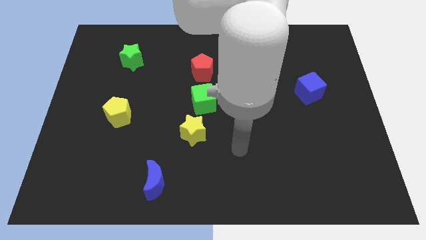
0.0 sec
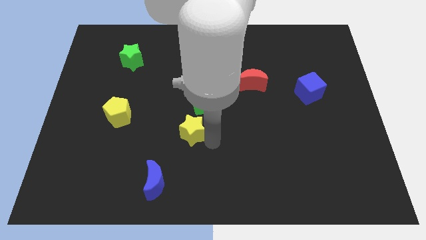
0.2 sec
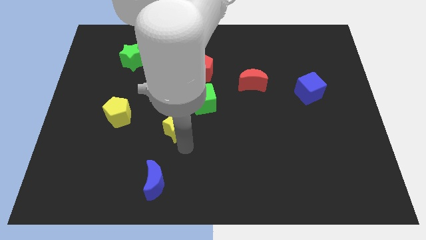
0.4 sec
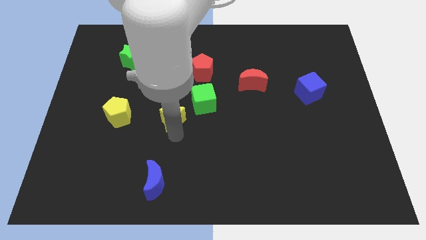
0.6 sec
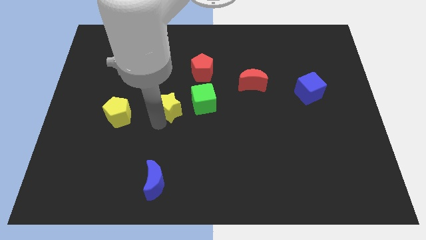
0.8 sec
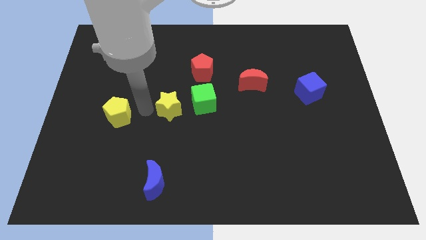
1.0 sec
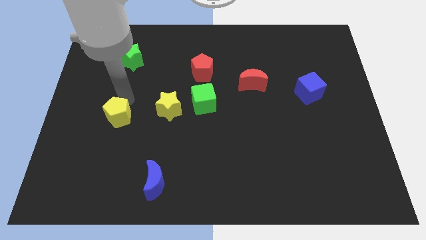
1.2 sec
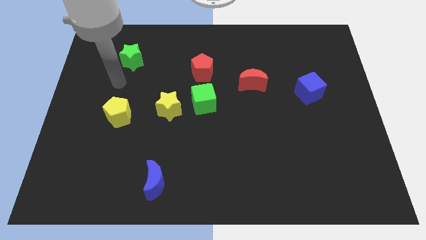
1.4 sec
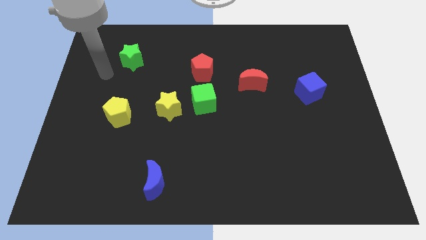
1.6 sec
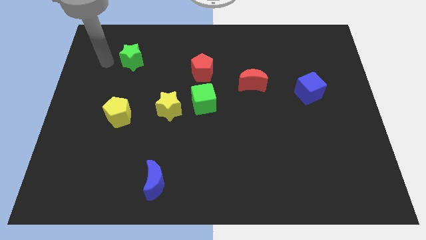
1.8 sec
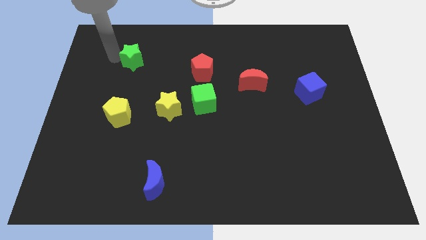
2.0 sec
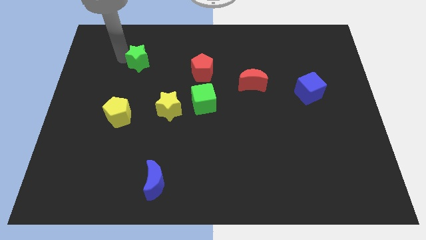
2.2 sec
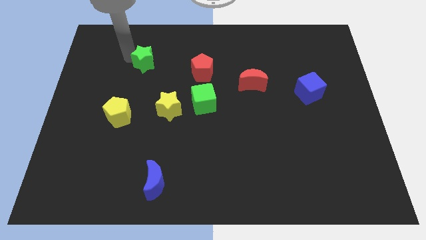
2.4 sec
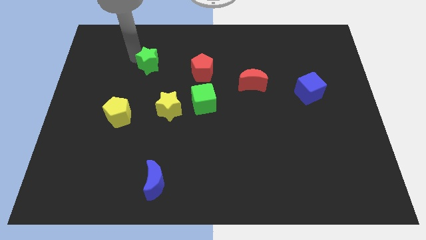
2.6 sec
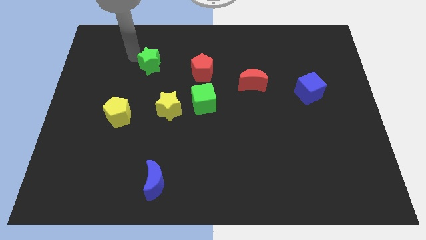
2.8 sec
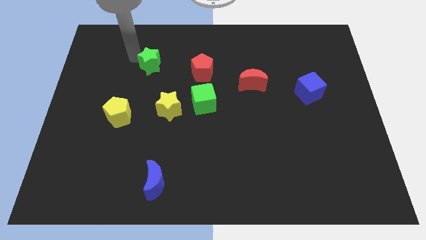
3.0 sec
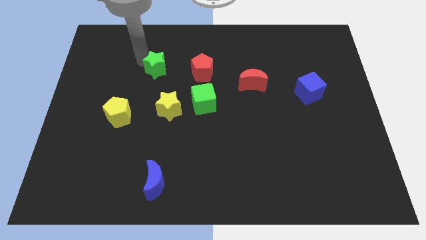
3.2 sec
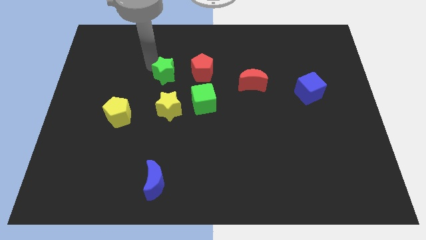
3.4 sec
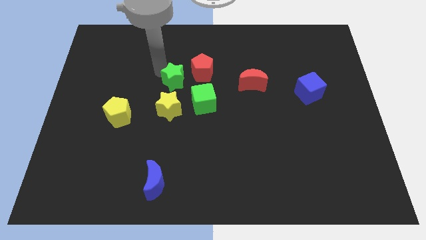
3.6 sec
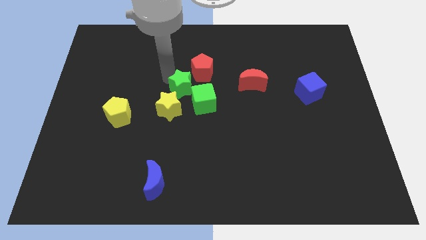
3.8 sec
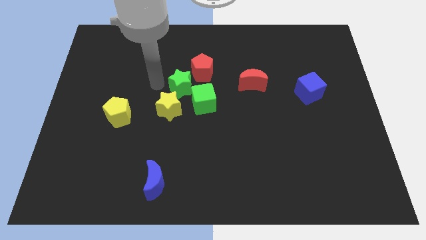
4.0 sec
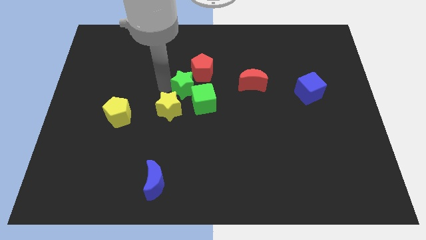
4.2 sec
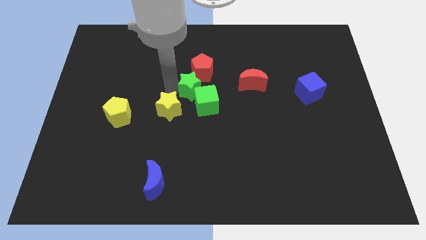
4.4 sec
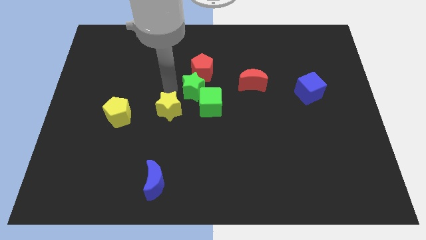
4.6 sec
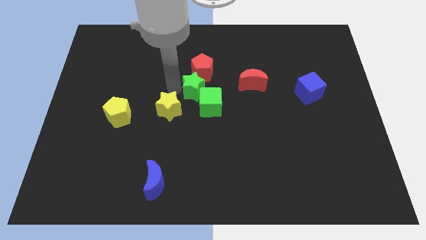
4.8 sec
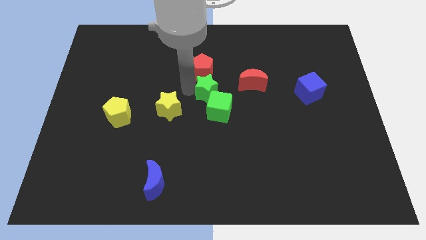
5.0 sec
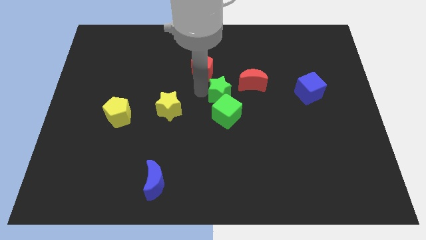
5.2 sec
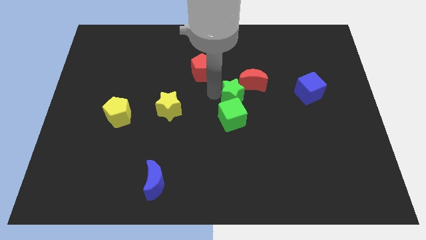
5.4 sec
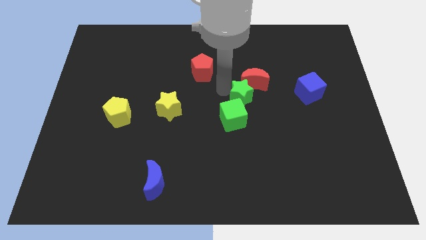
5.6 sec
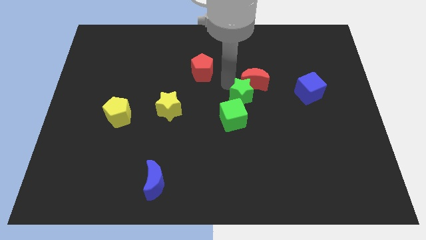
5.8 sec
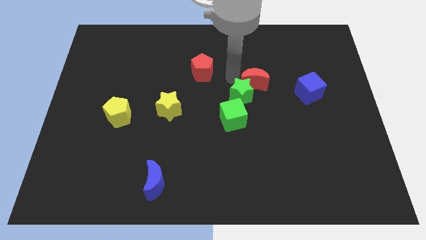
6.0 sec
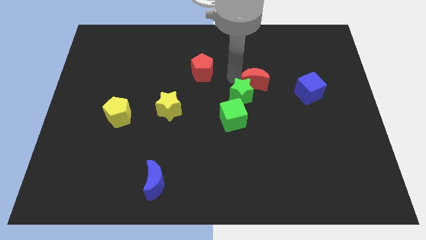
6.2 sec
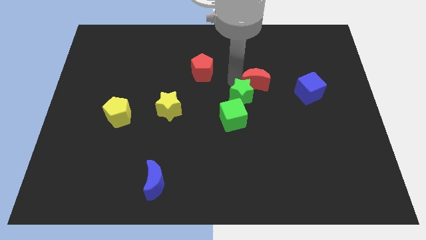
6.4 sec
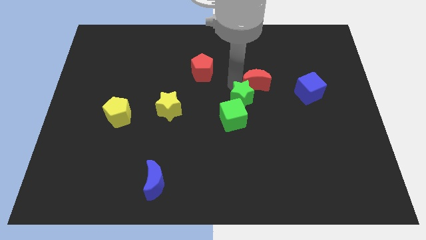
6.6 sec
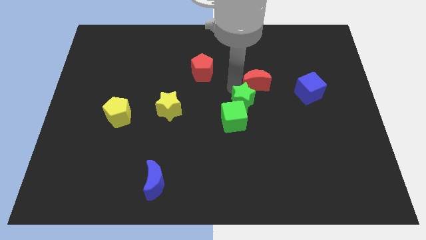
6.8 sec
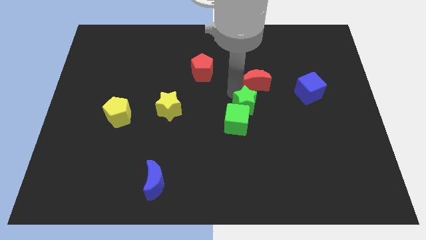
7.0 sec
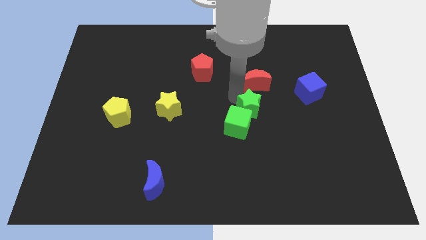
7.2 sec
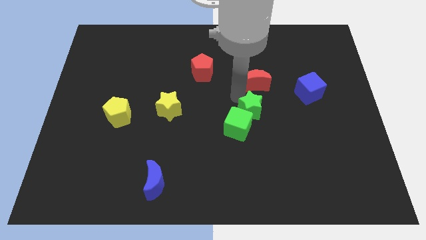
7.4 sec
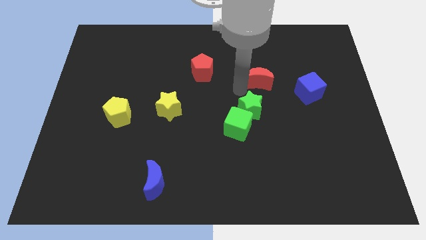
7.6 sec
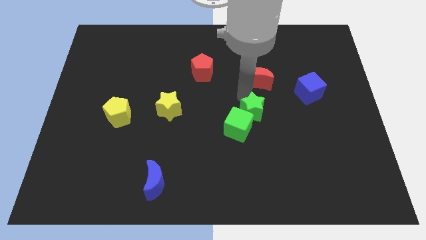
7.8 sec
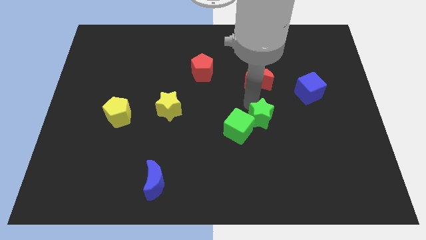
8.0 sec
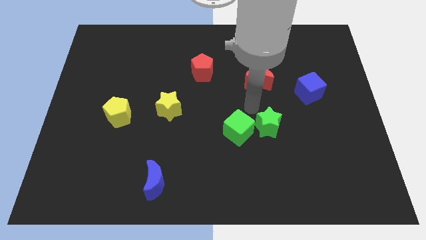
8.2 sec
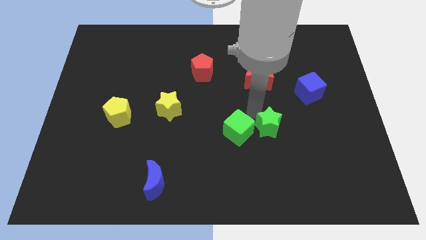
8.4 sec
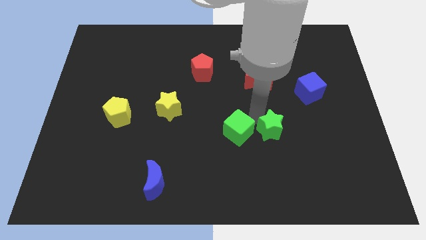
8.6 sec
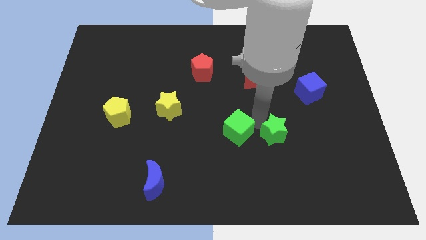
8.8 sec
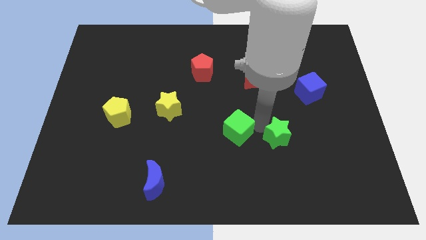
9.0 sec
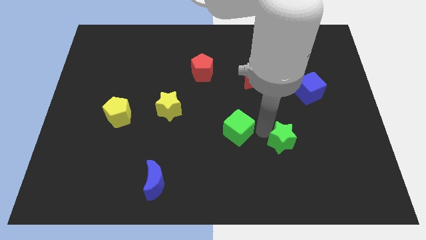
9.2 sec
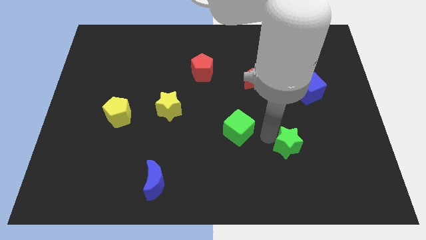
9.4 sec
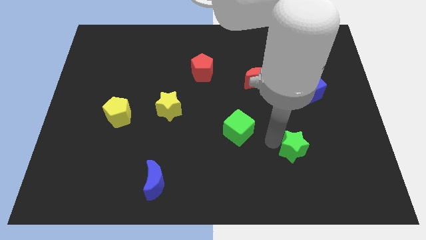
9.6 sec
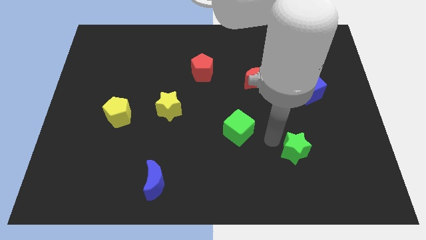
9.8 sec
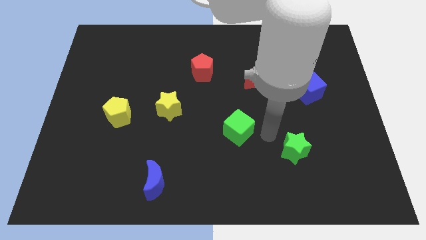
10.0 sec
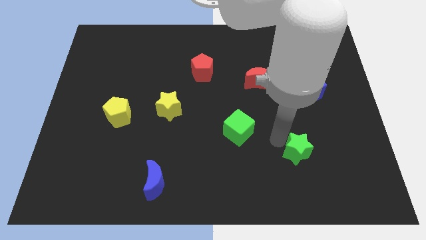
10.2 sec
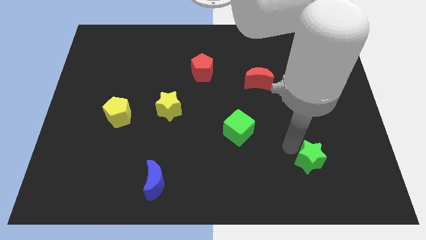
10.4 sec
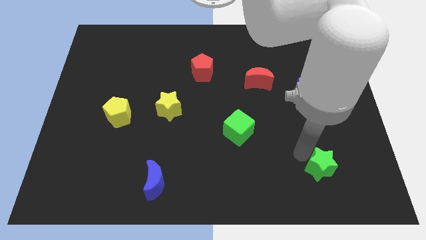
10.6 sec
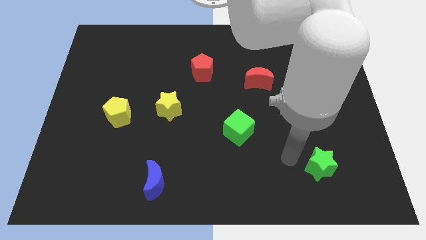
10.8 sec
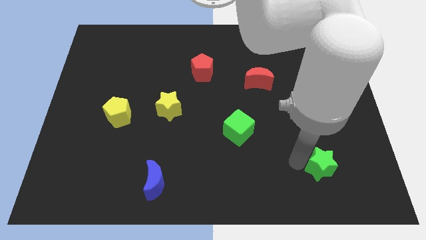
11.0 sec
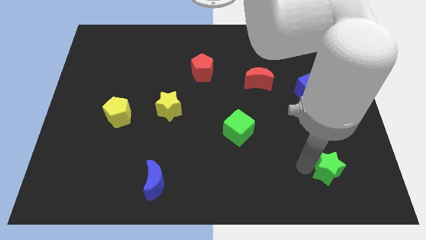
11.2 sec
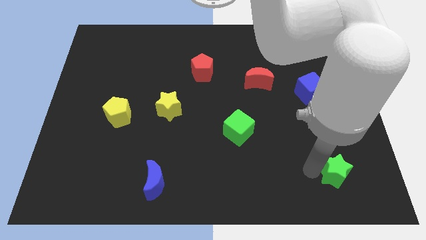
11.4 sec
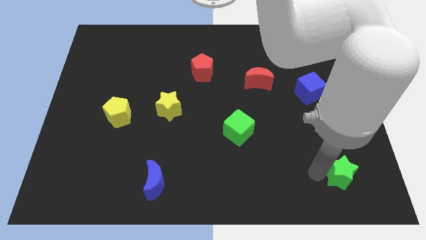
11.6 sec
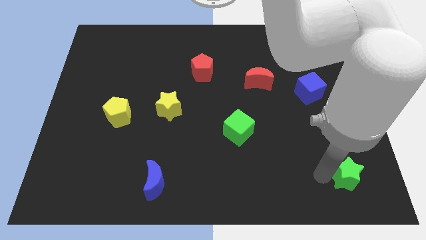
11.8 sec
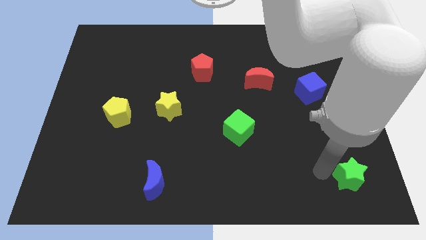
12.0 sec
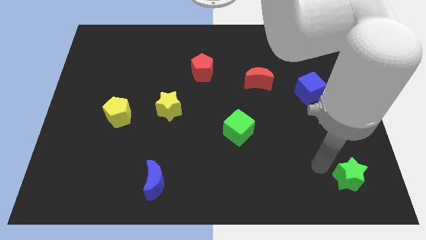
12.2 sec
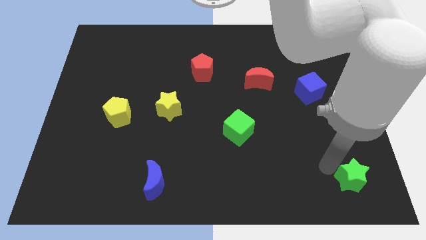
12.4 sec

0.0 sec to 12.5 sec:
slide the green star to the lower right corner

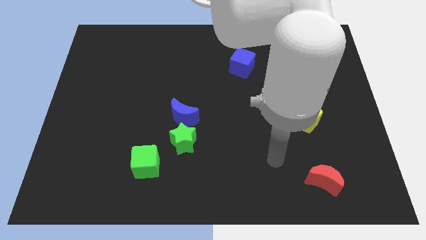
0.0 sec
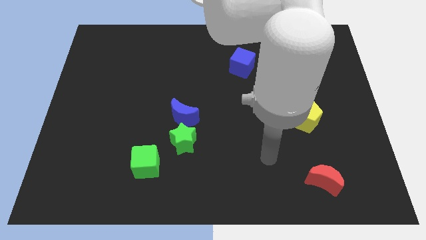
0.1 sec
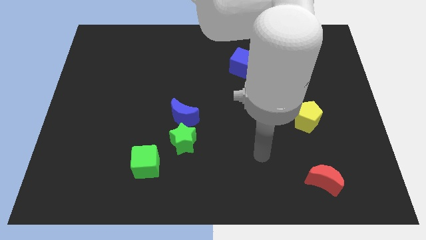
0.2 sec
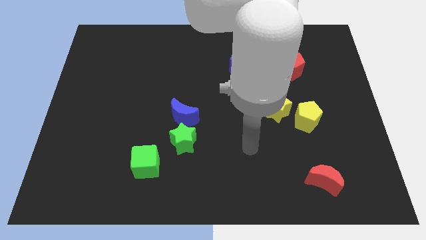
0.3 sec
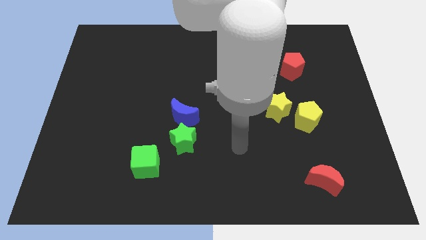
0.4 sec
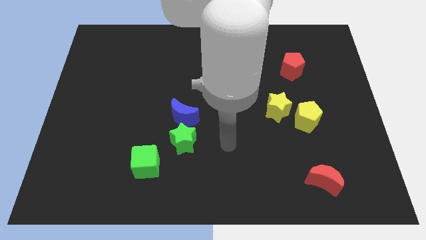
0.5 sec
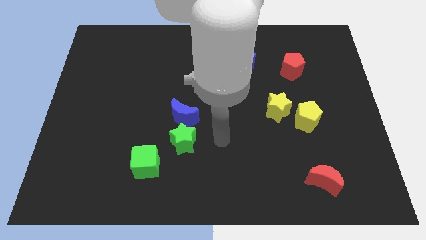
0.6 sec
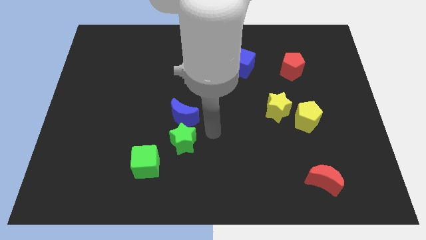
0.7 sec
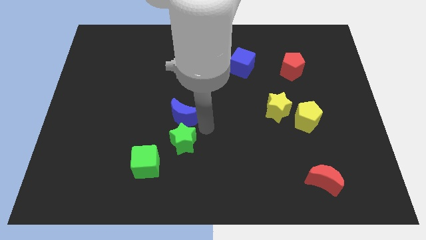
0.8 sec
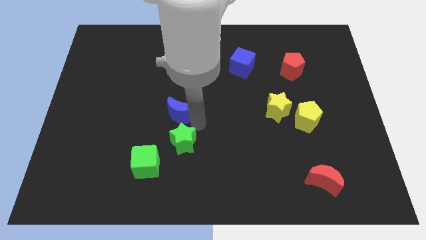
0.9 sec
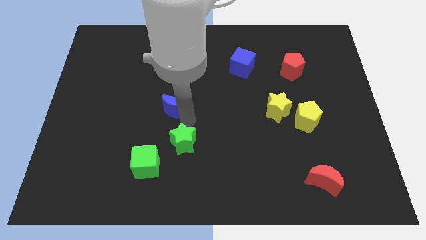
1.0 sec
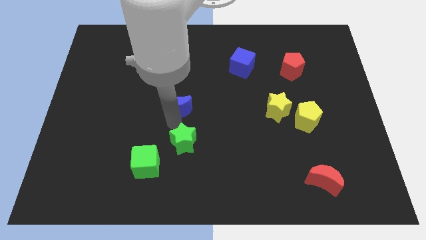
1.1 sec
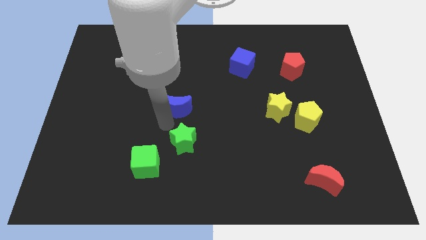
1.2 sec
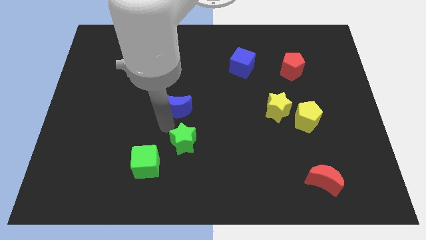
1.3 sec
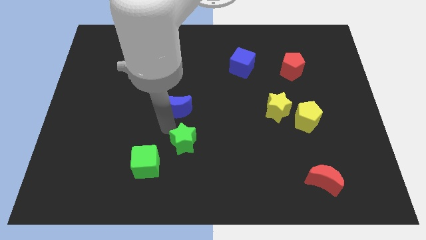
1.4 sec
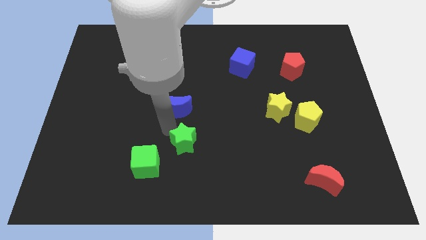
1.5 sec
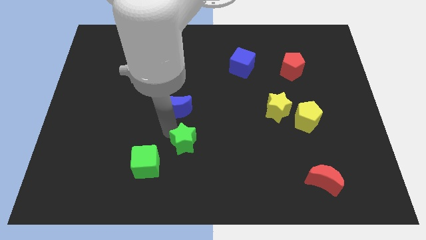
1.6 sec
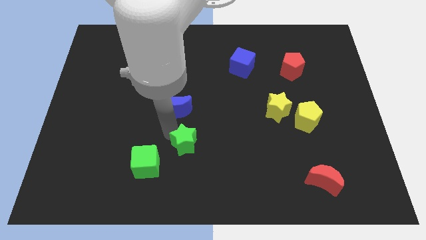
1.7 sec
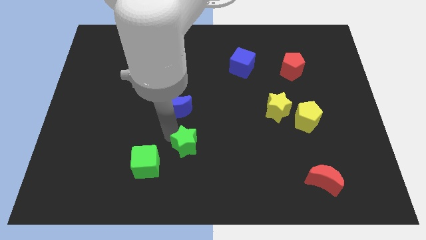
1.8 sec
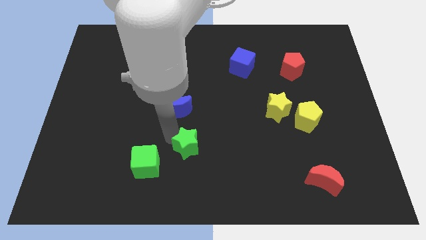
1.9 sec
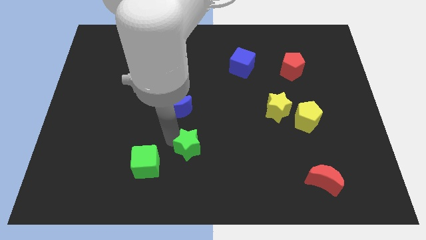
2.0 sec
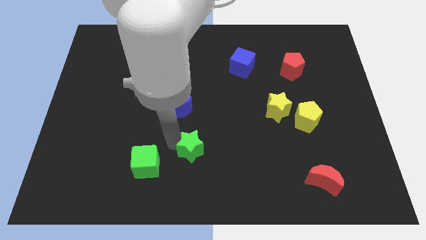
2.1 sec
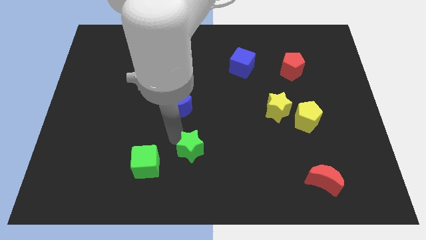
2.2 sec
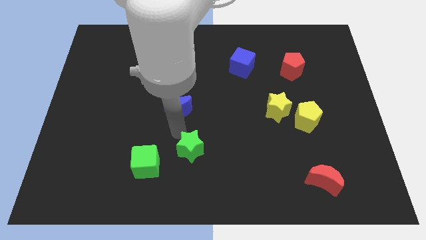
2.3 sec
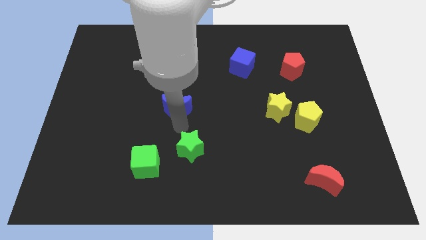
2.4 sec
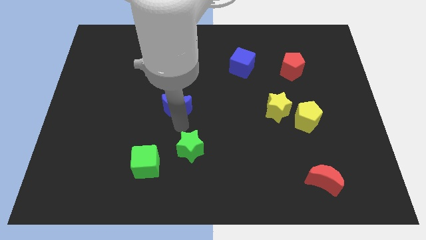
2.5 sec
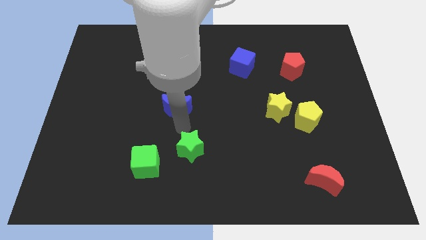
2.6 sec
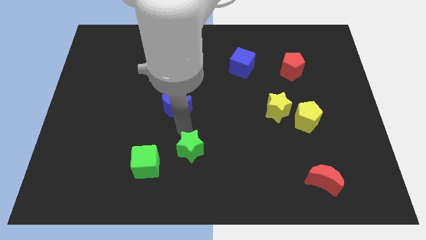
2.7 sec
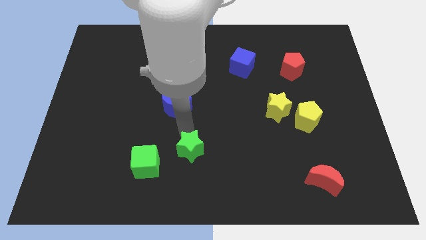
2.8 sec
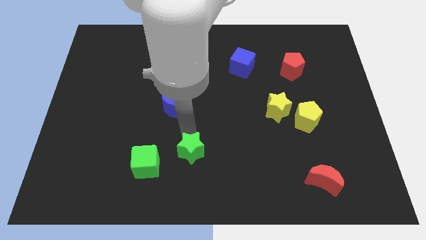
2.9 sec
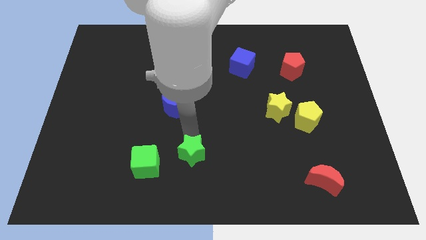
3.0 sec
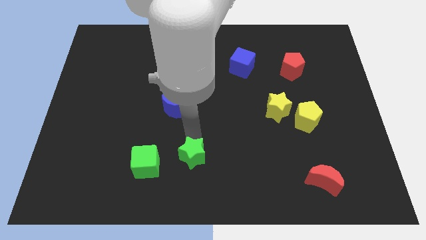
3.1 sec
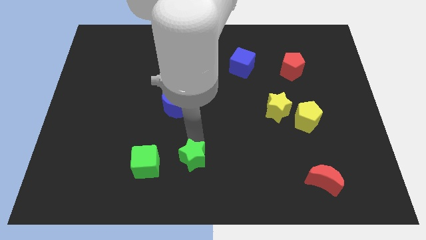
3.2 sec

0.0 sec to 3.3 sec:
push the green star to the bottom side
